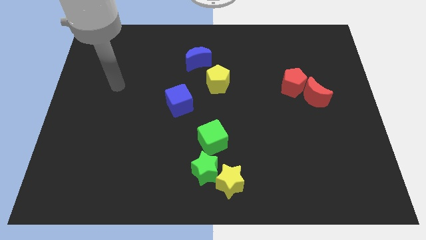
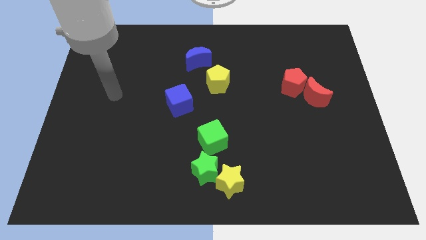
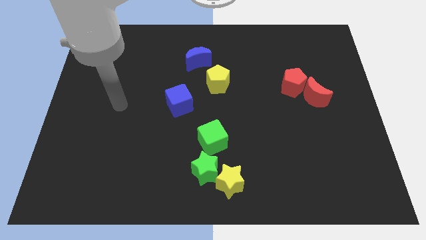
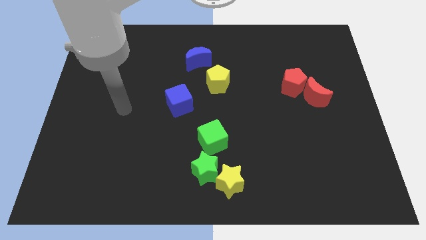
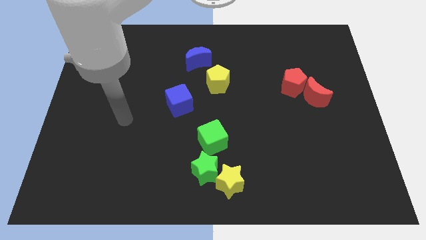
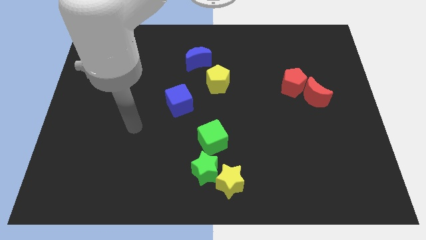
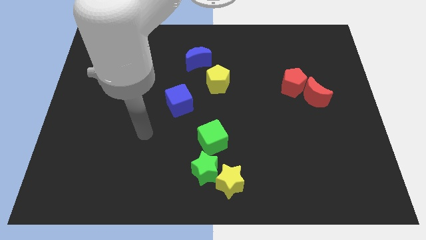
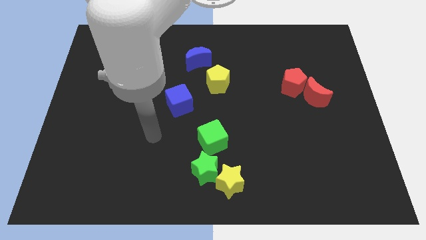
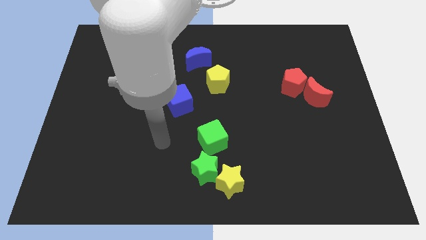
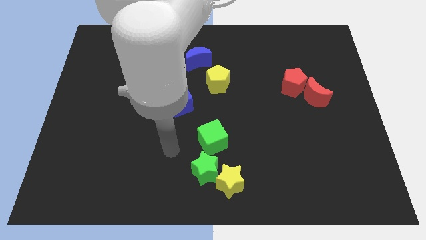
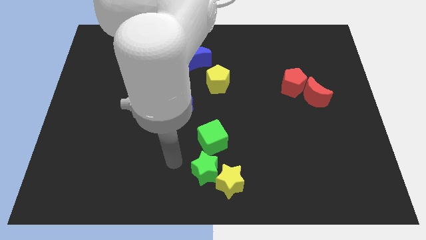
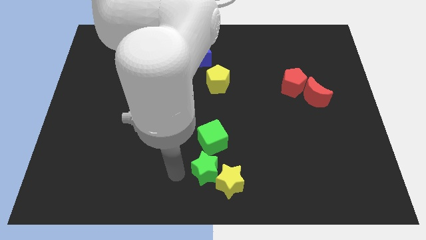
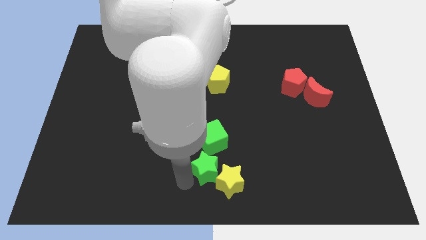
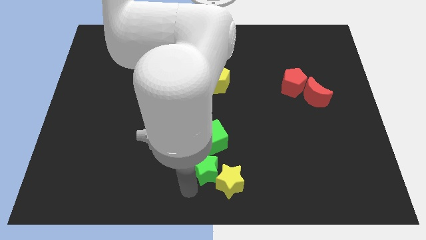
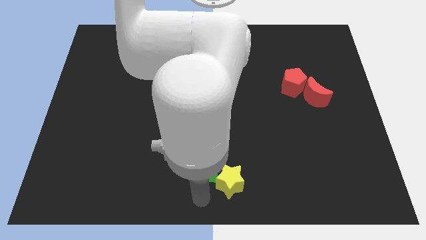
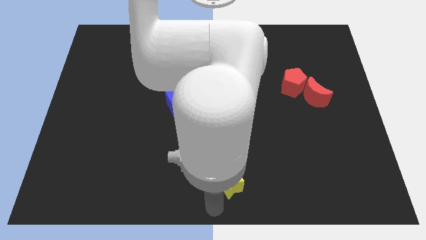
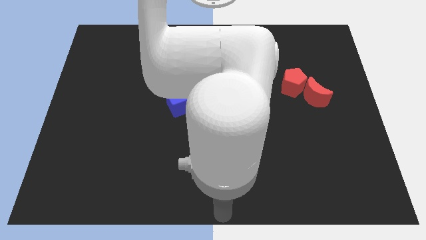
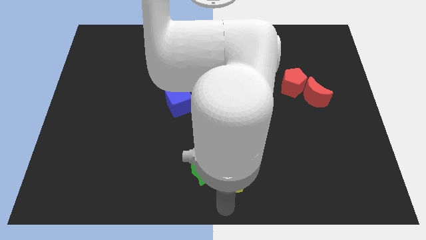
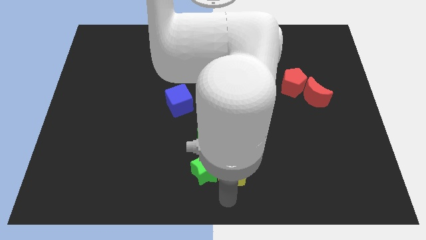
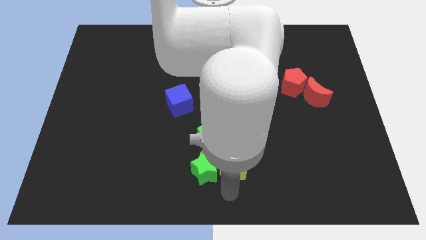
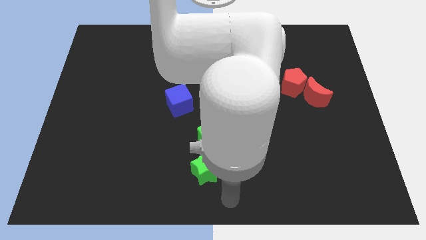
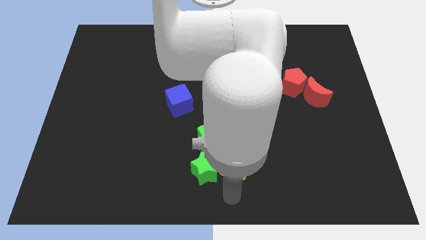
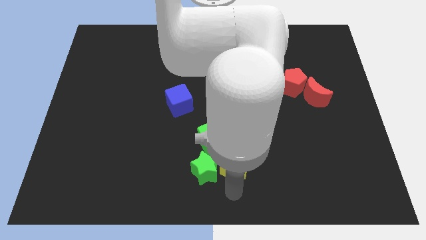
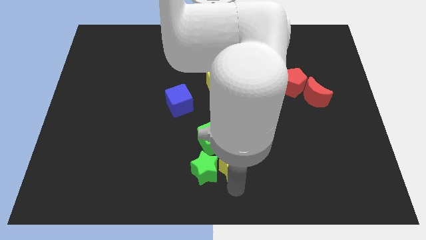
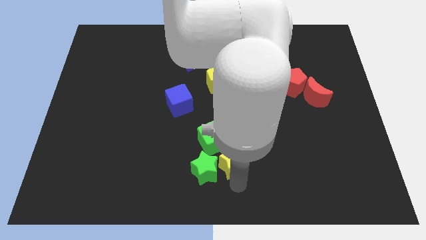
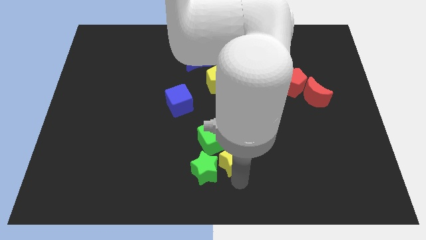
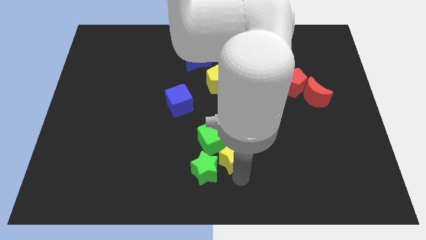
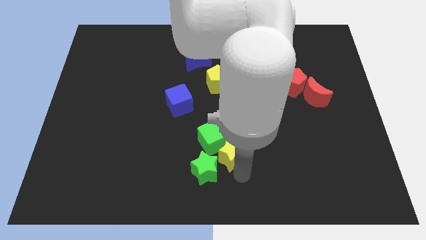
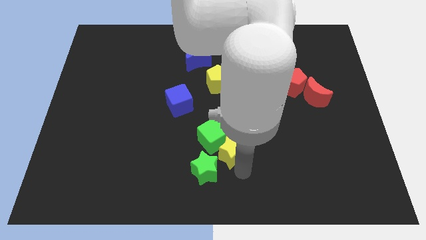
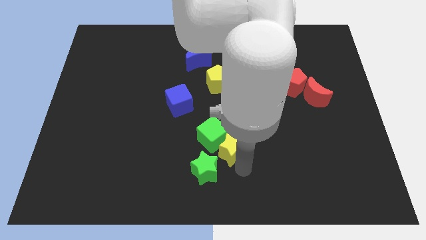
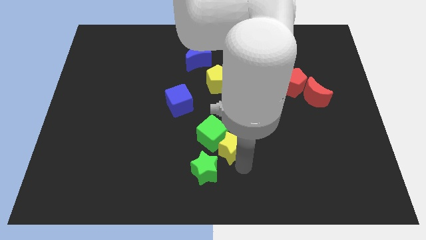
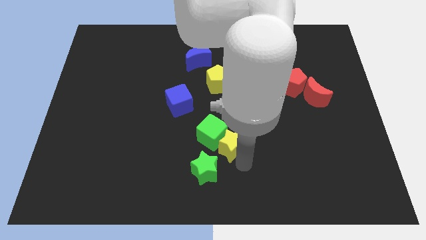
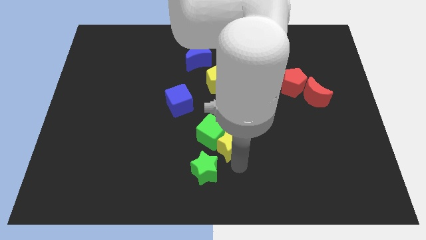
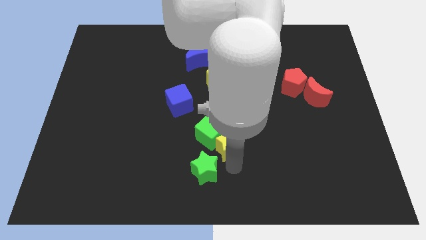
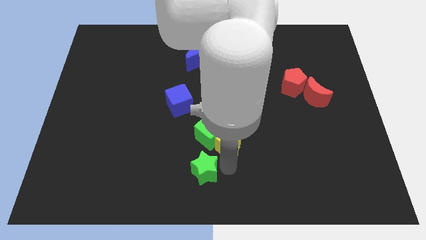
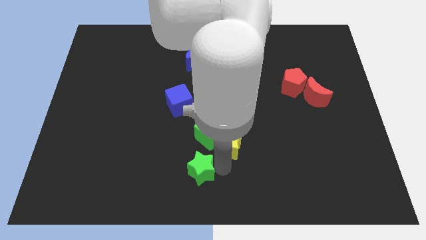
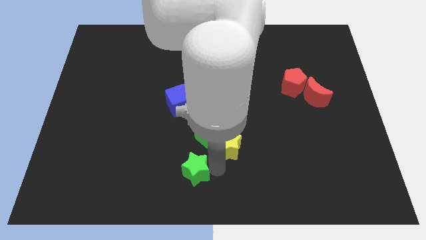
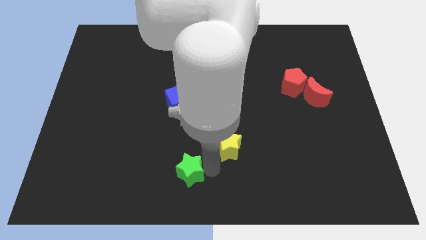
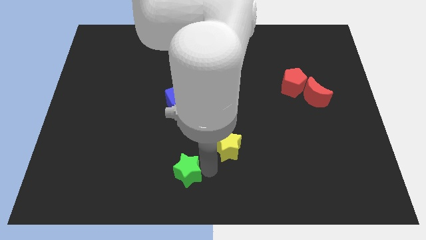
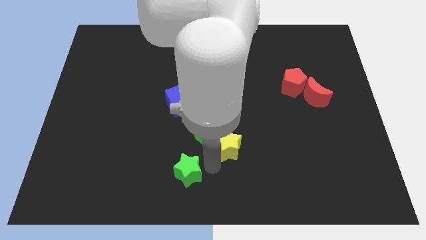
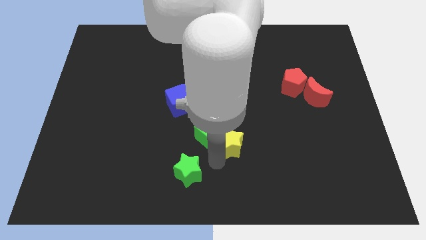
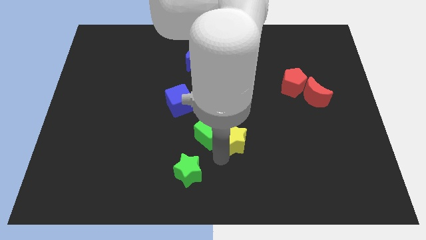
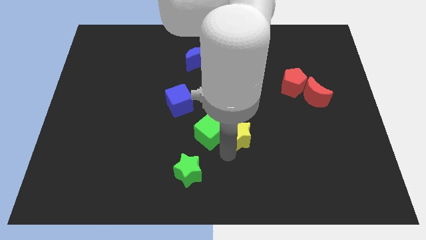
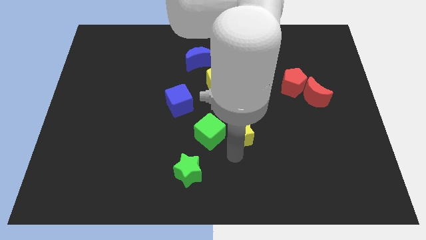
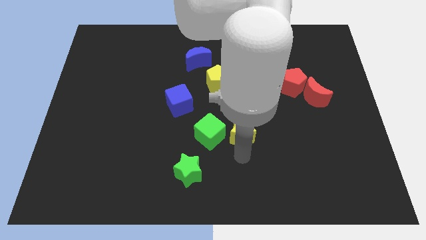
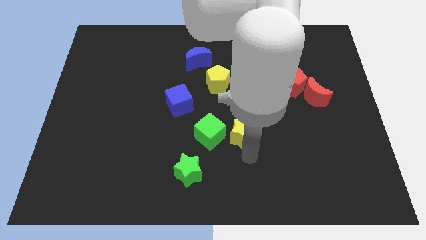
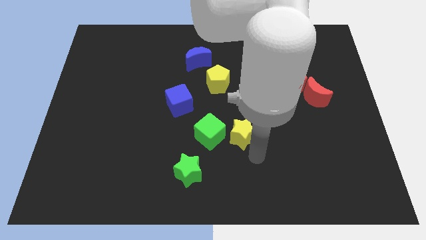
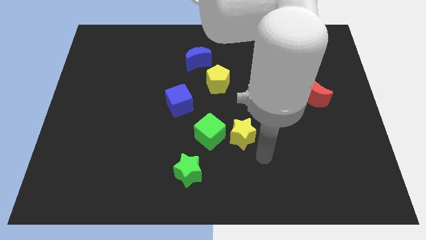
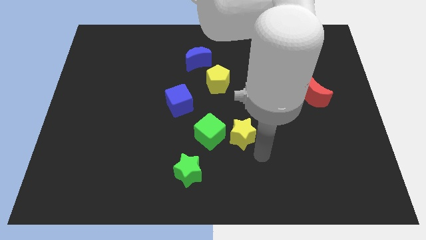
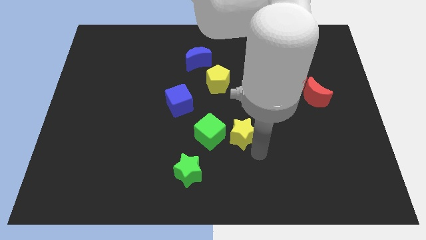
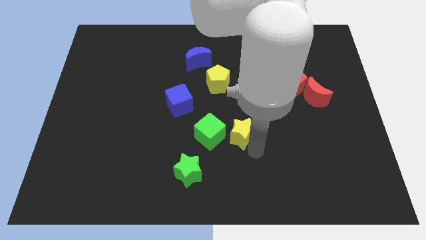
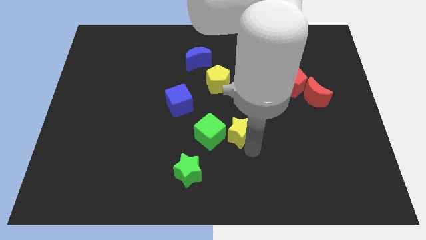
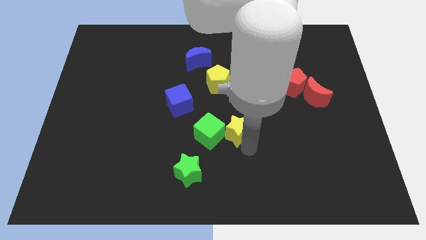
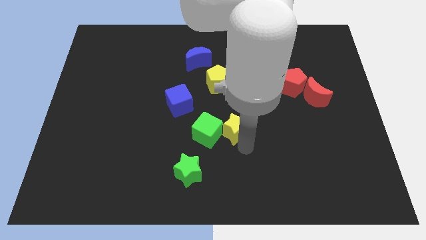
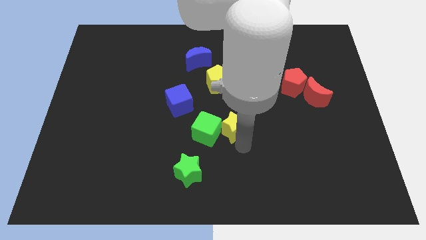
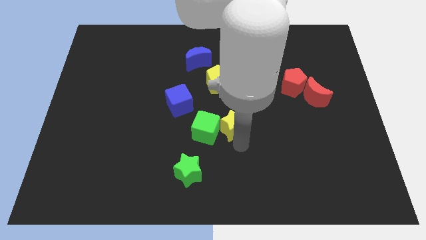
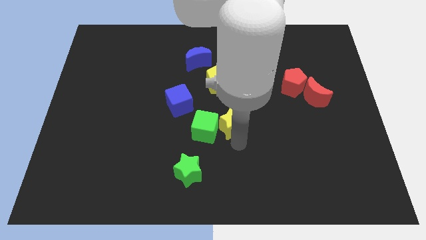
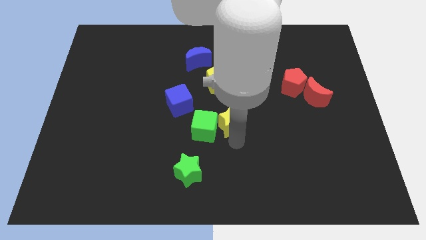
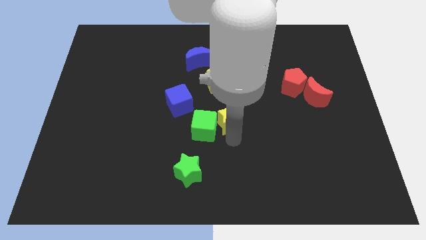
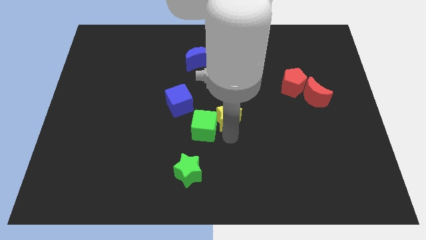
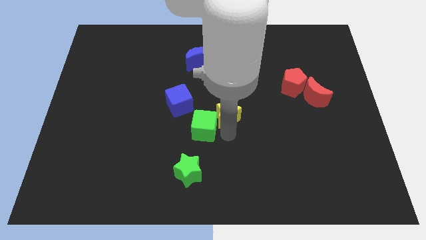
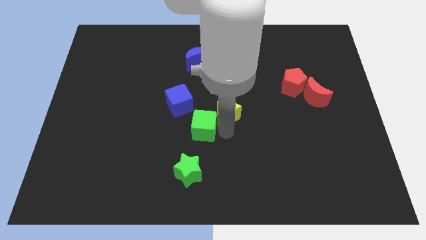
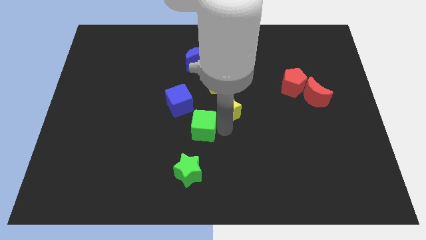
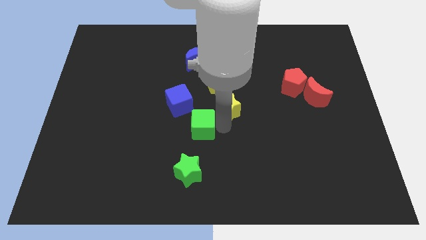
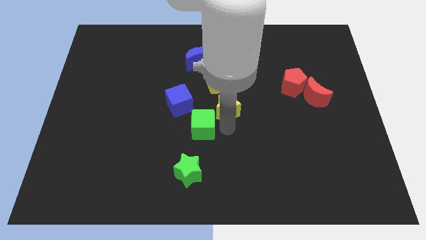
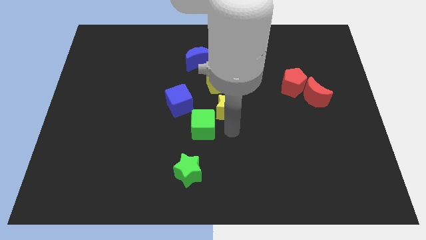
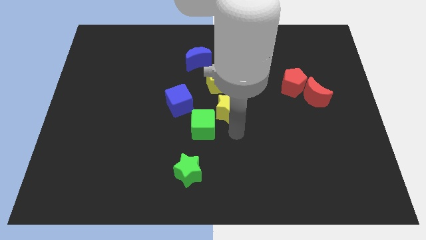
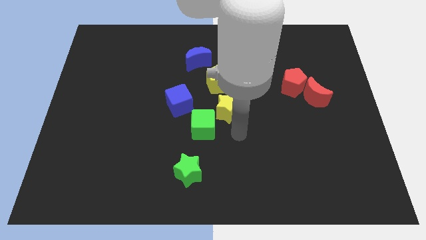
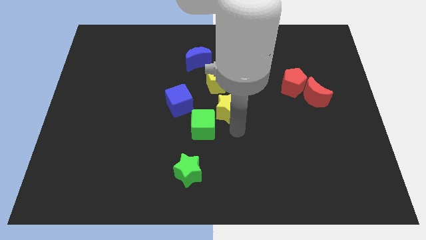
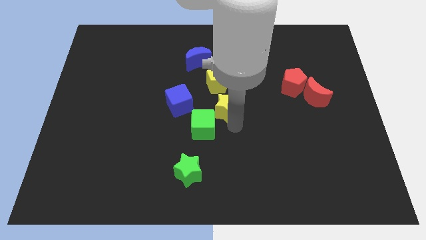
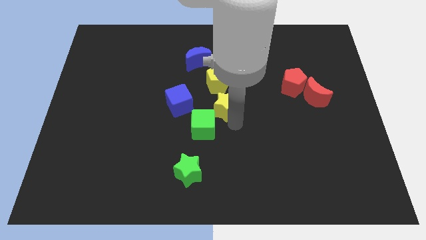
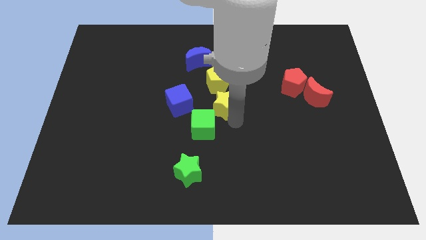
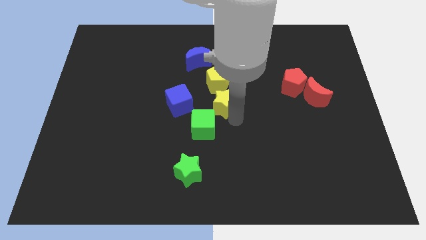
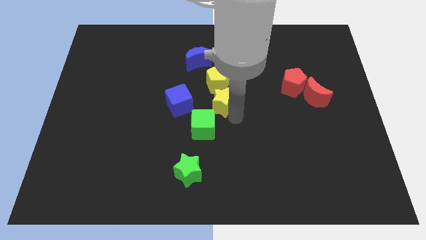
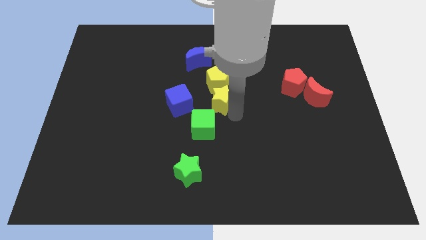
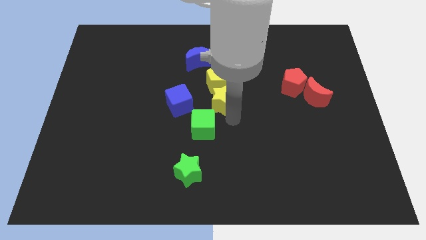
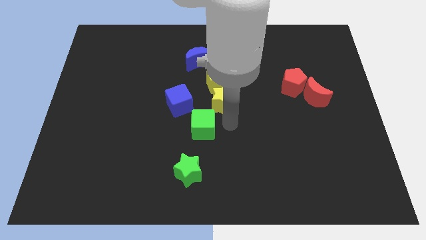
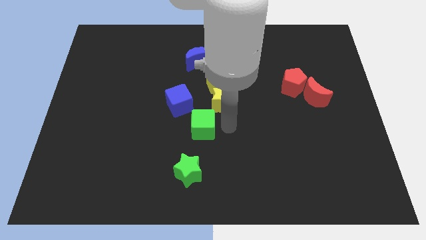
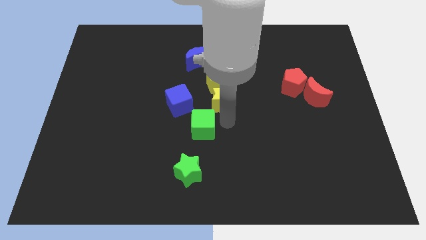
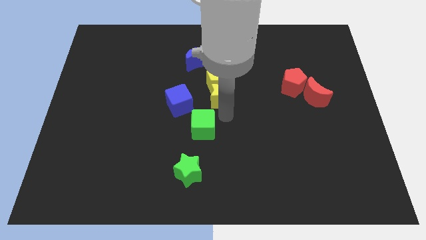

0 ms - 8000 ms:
push the yellow star next to the yellow pentagon
